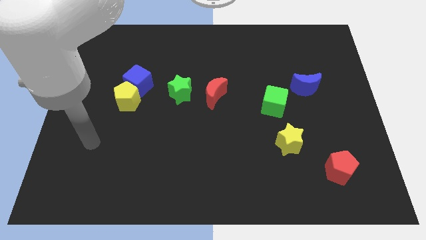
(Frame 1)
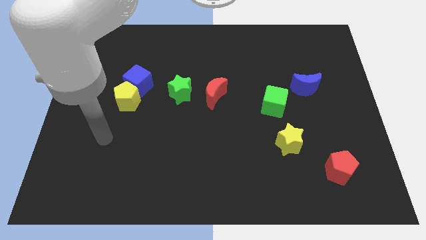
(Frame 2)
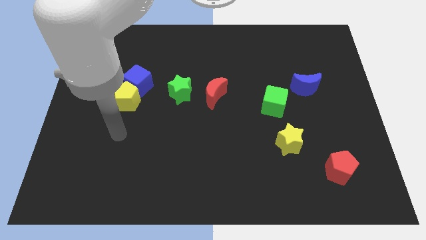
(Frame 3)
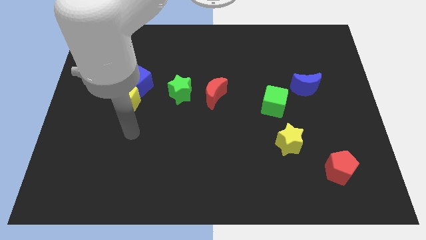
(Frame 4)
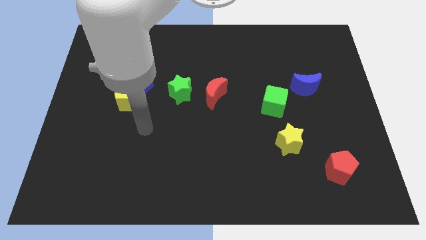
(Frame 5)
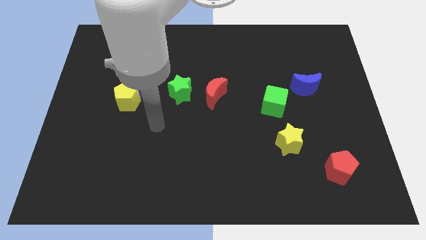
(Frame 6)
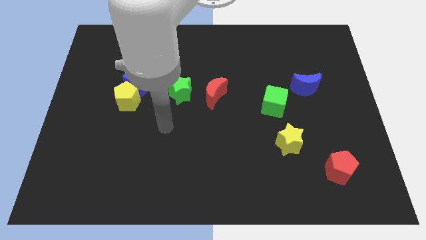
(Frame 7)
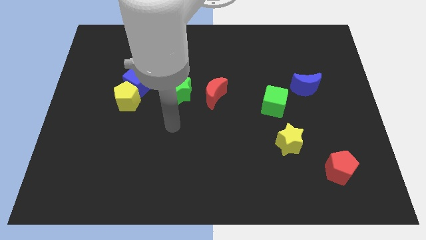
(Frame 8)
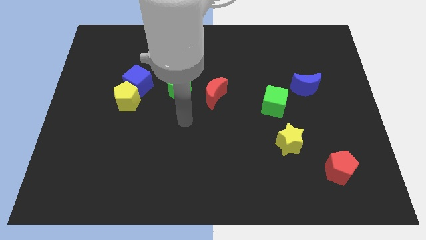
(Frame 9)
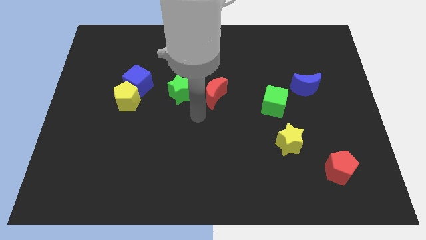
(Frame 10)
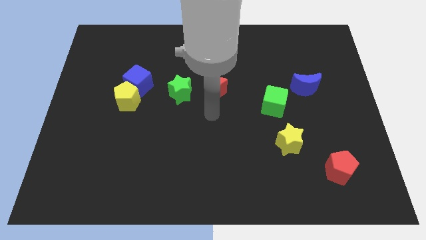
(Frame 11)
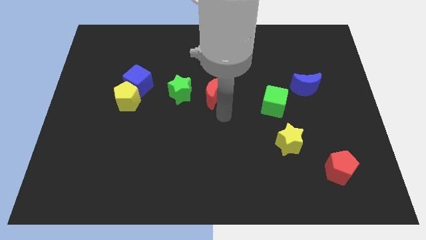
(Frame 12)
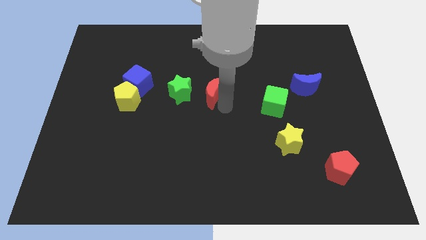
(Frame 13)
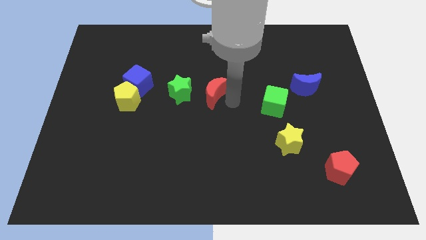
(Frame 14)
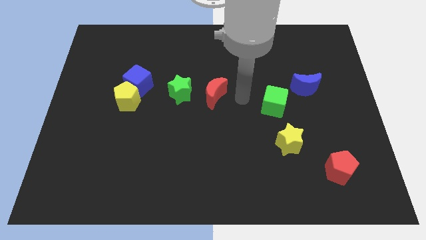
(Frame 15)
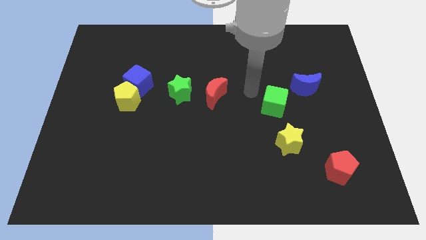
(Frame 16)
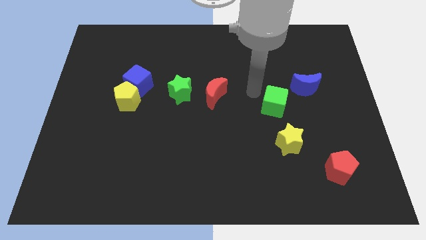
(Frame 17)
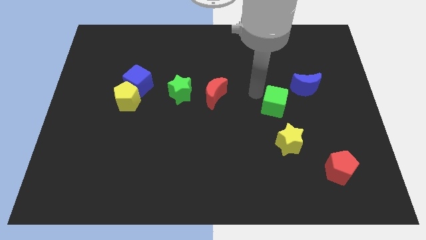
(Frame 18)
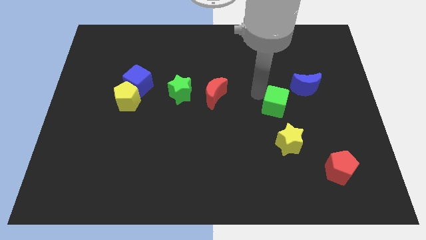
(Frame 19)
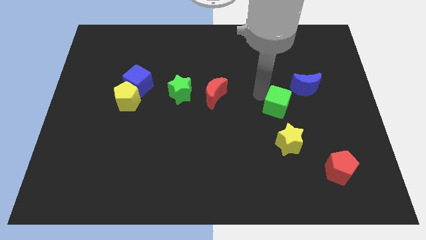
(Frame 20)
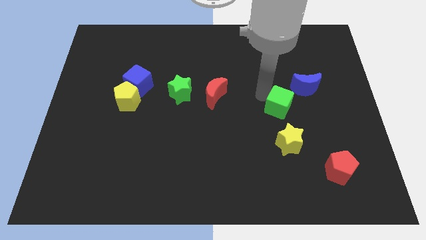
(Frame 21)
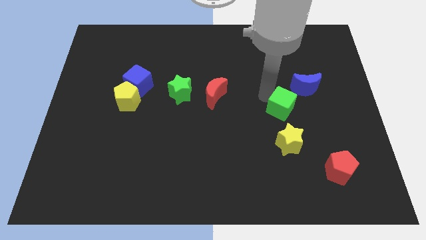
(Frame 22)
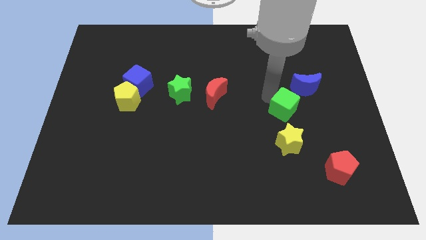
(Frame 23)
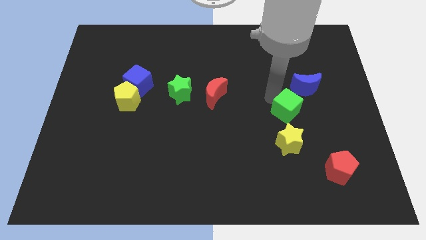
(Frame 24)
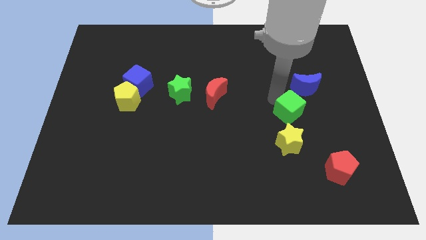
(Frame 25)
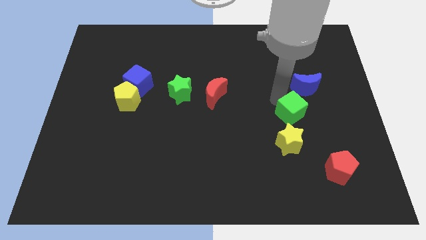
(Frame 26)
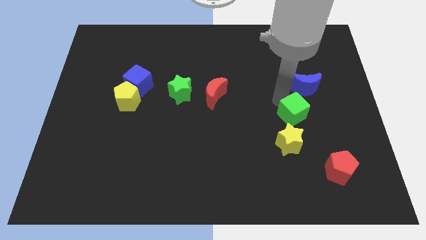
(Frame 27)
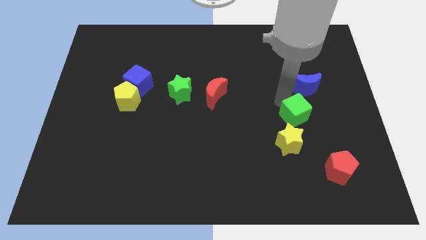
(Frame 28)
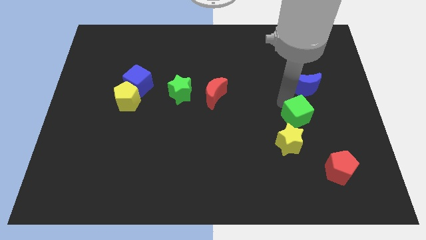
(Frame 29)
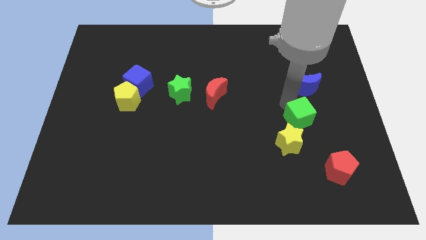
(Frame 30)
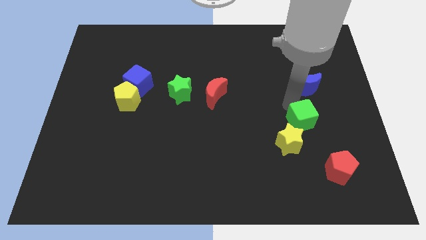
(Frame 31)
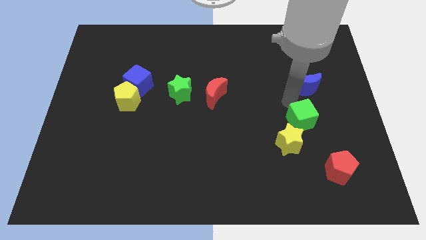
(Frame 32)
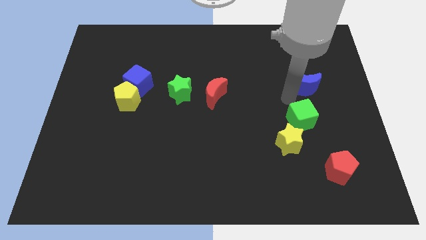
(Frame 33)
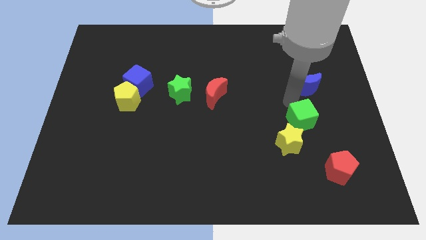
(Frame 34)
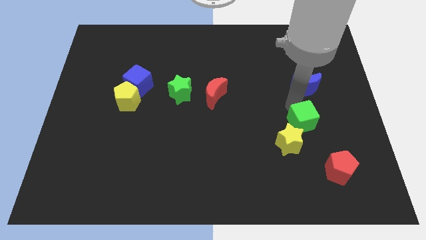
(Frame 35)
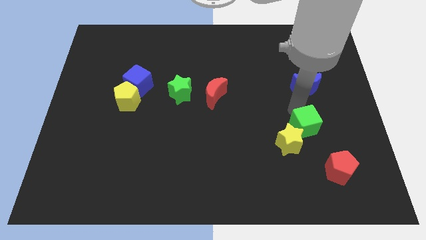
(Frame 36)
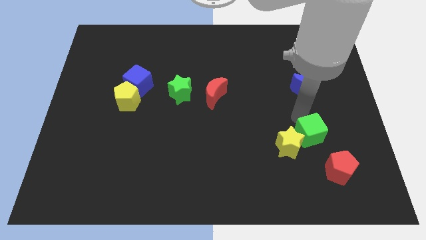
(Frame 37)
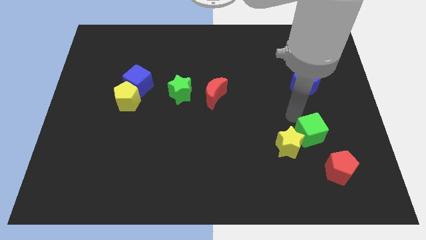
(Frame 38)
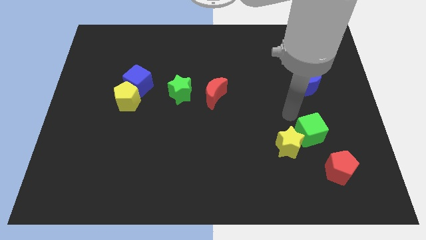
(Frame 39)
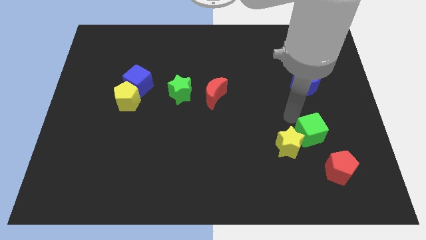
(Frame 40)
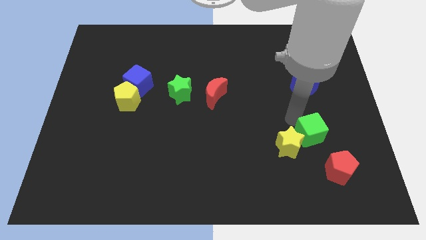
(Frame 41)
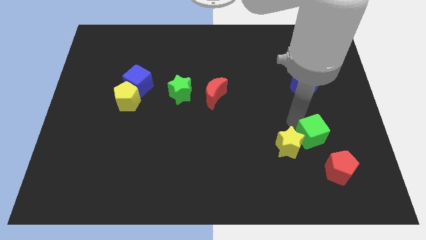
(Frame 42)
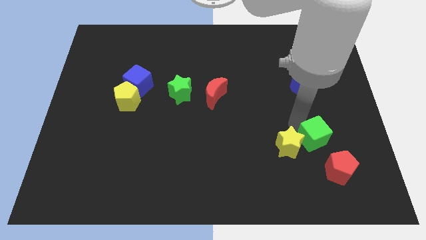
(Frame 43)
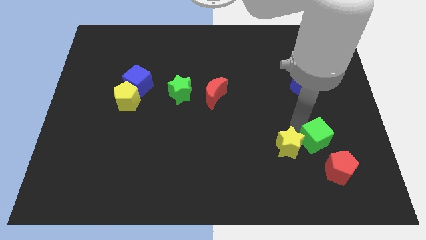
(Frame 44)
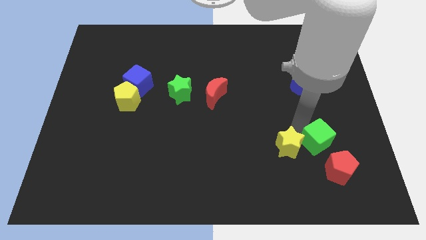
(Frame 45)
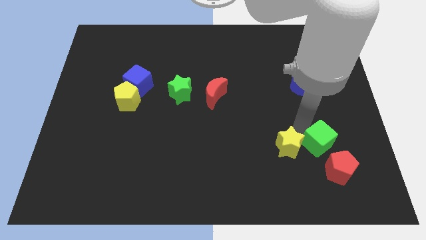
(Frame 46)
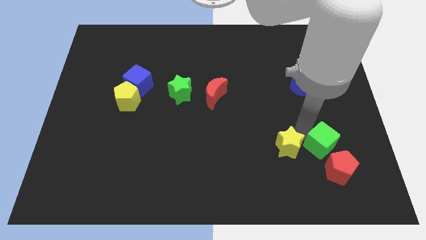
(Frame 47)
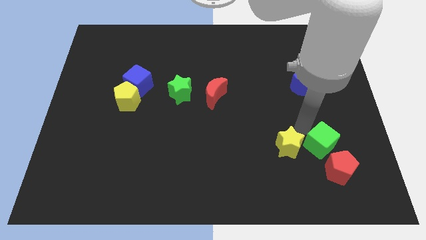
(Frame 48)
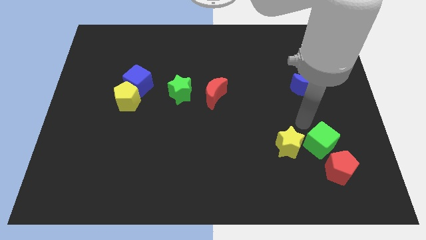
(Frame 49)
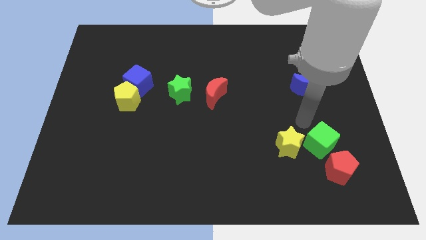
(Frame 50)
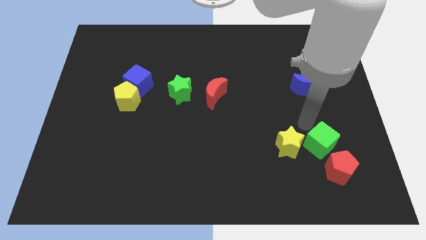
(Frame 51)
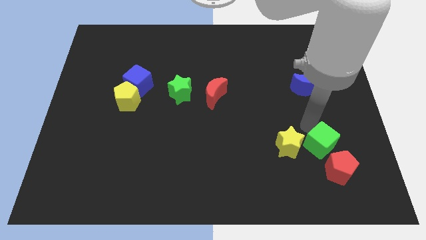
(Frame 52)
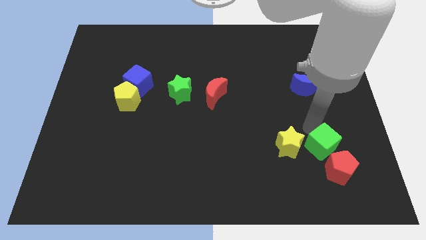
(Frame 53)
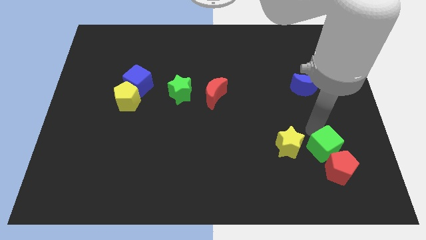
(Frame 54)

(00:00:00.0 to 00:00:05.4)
push the green cube close to the red pentagon

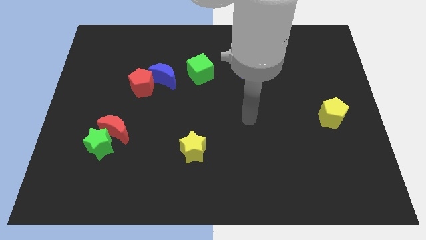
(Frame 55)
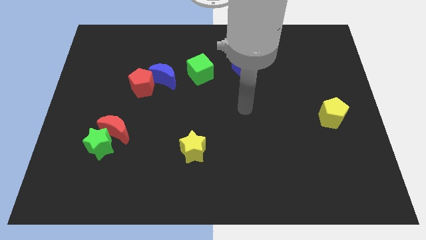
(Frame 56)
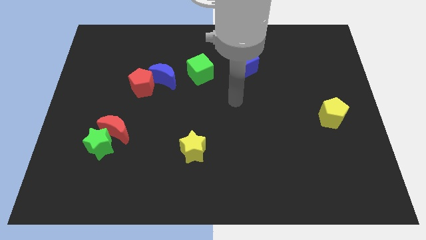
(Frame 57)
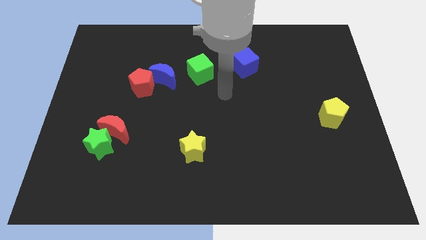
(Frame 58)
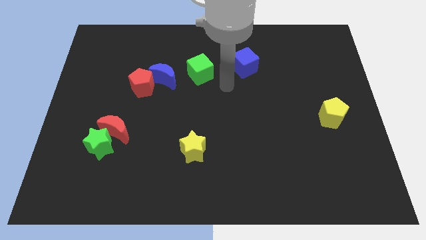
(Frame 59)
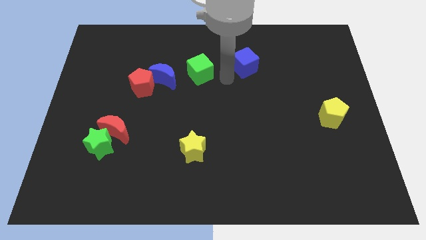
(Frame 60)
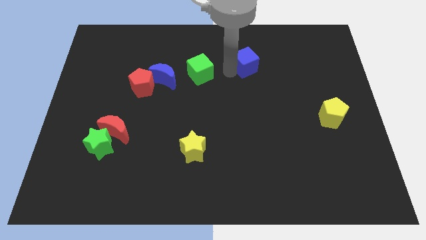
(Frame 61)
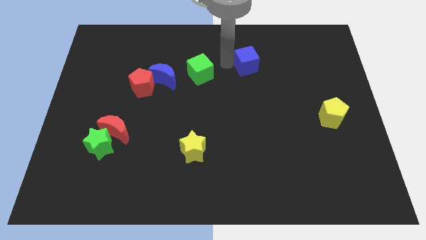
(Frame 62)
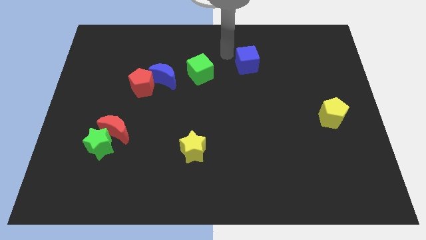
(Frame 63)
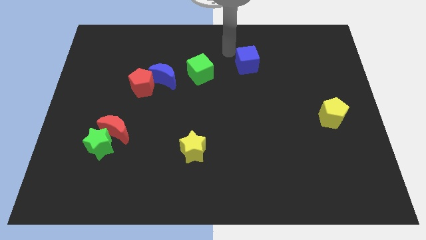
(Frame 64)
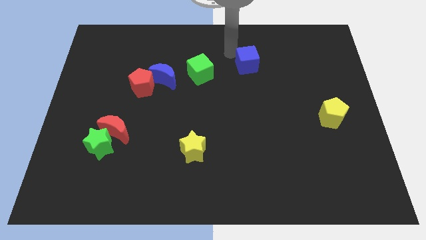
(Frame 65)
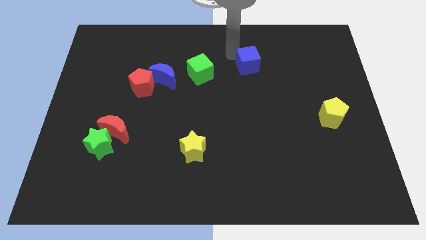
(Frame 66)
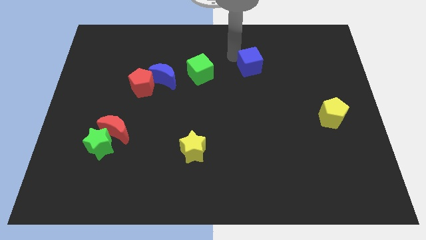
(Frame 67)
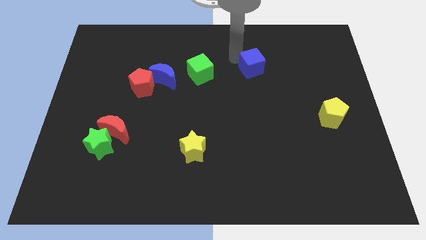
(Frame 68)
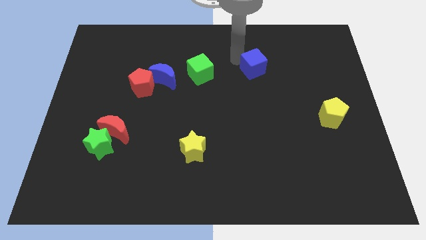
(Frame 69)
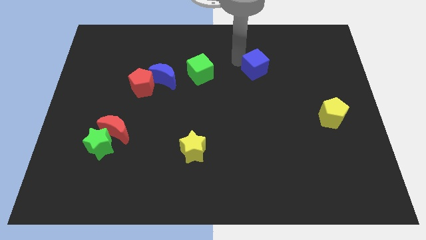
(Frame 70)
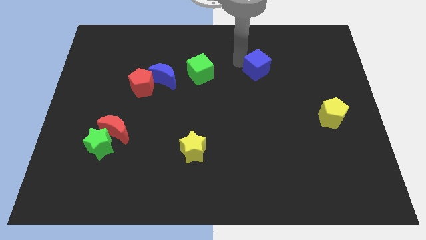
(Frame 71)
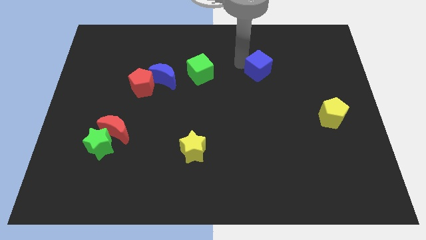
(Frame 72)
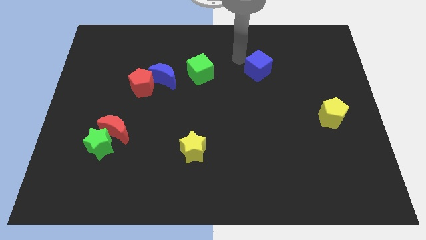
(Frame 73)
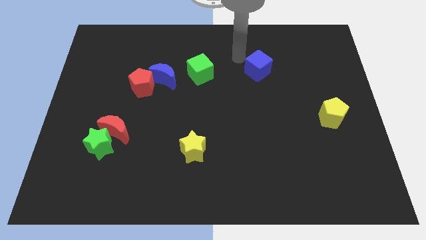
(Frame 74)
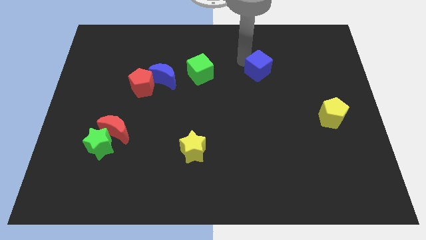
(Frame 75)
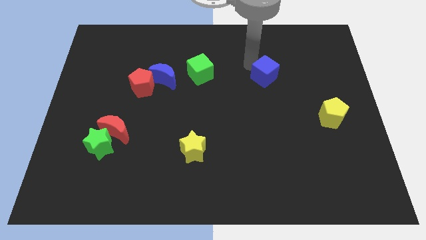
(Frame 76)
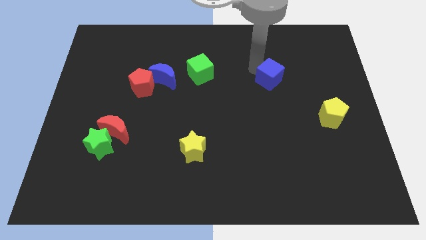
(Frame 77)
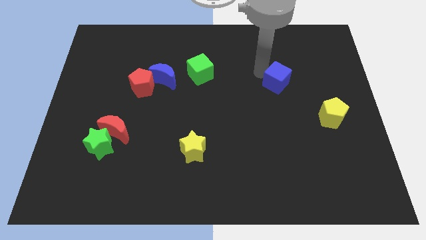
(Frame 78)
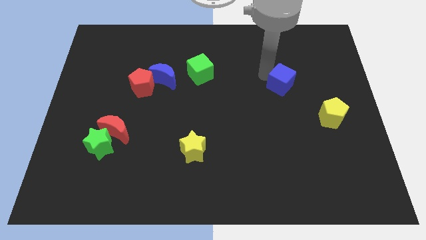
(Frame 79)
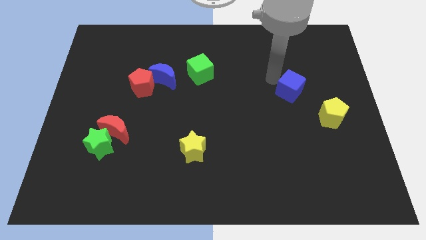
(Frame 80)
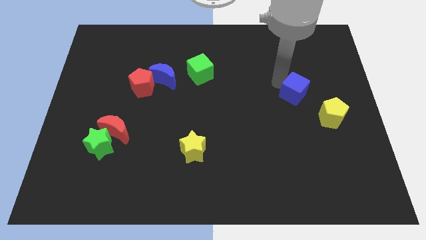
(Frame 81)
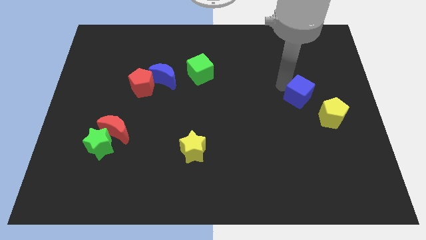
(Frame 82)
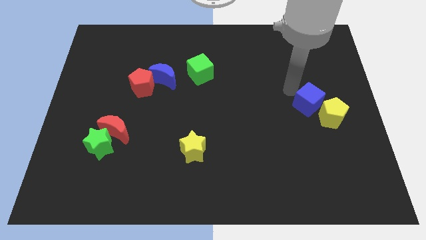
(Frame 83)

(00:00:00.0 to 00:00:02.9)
slide the blue cube towards the yellow pentagon
